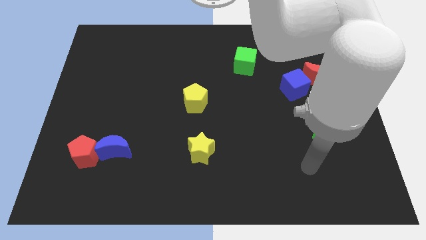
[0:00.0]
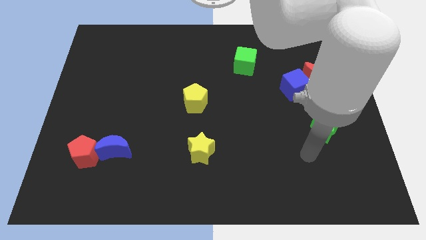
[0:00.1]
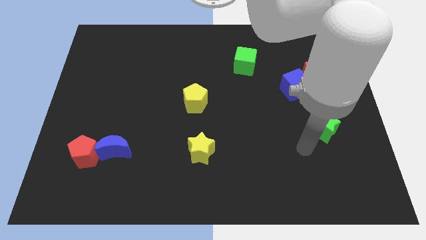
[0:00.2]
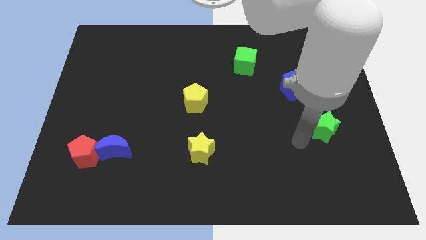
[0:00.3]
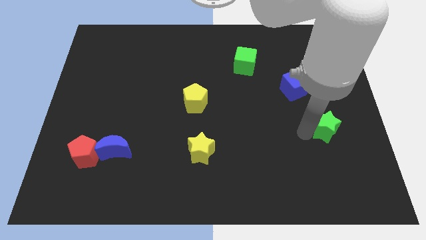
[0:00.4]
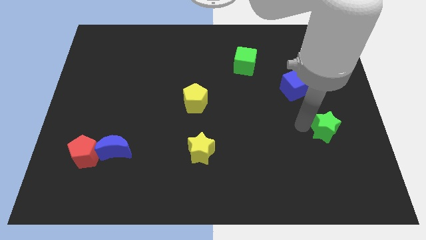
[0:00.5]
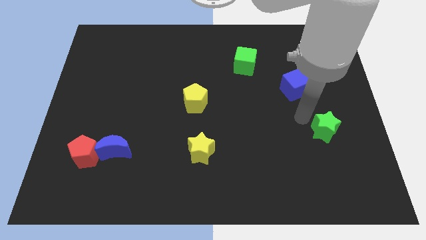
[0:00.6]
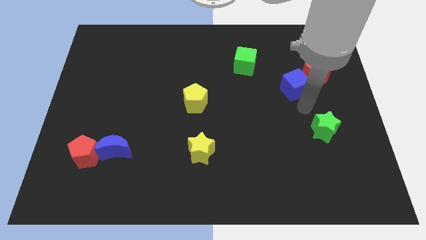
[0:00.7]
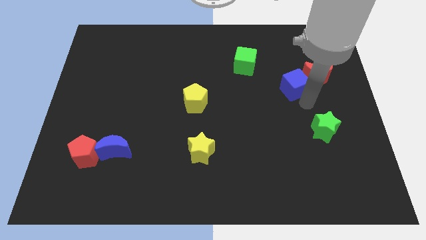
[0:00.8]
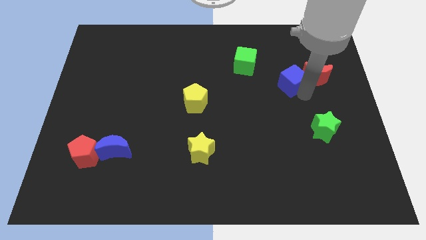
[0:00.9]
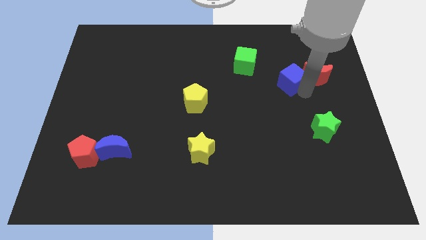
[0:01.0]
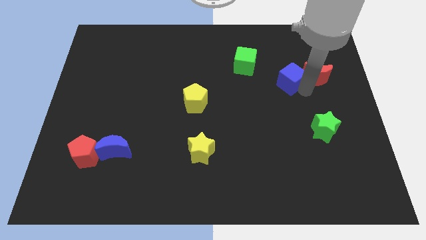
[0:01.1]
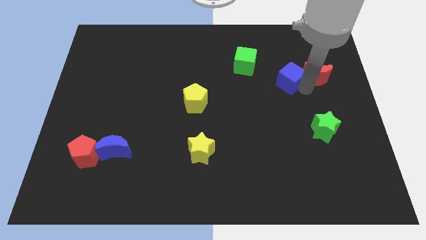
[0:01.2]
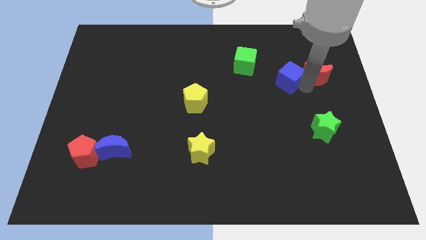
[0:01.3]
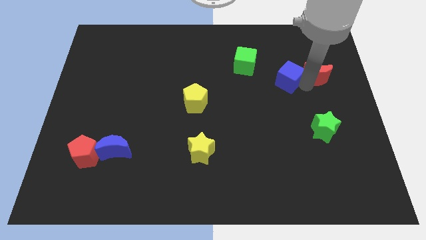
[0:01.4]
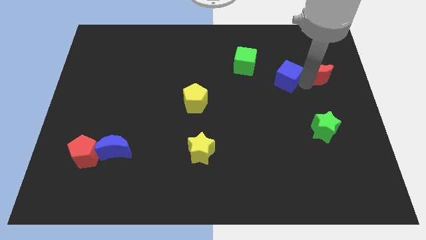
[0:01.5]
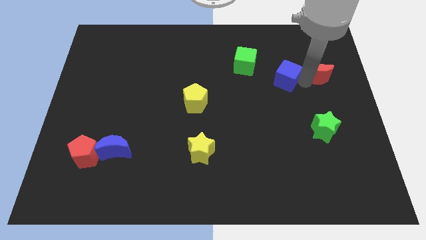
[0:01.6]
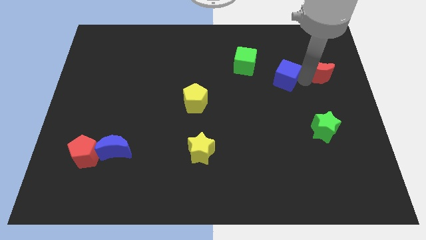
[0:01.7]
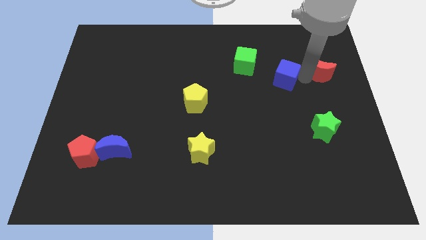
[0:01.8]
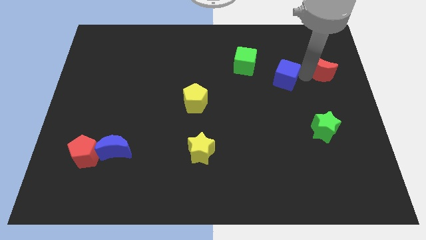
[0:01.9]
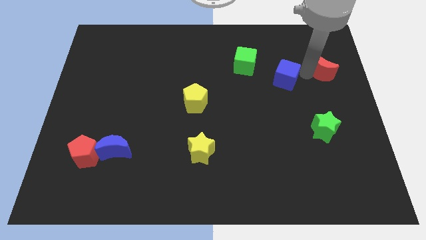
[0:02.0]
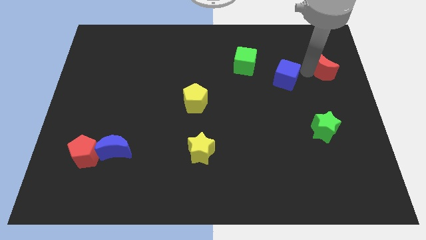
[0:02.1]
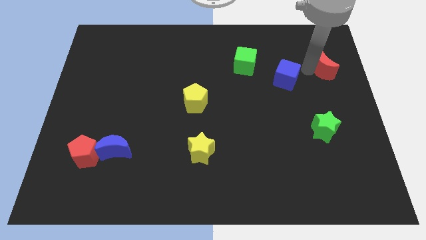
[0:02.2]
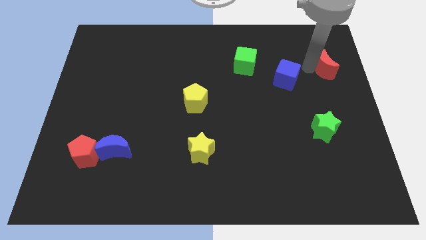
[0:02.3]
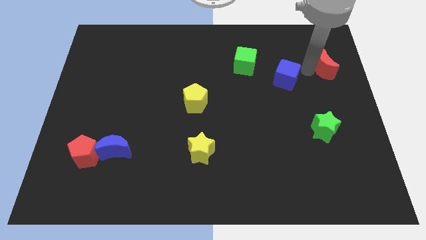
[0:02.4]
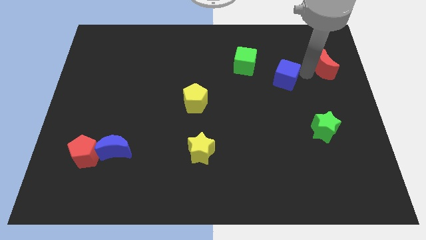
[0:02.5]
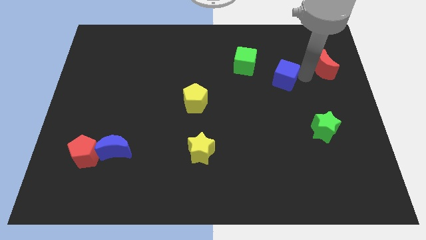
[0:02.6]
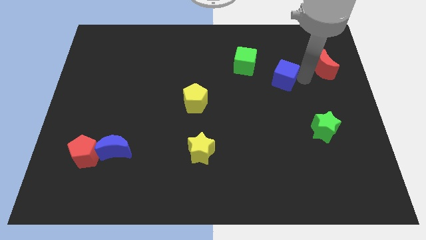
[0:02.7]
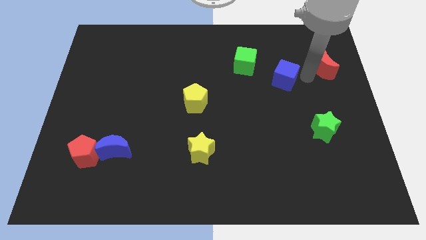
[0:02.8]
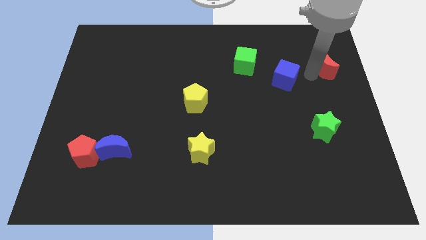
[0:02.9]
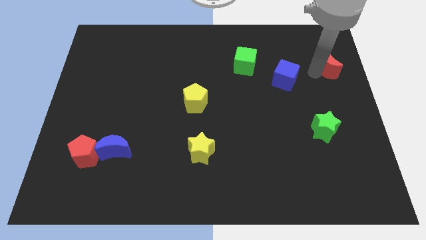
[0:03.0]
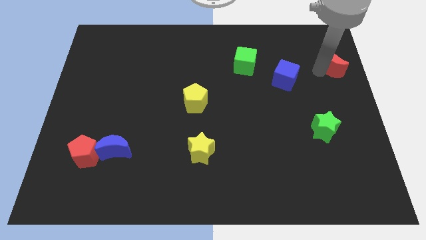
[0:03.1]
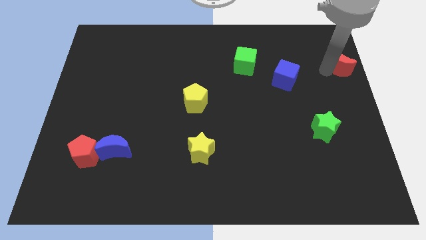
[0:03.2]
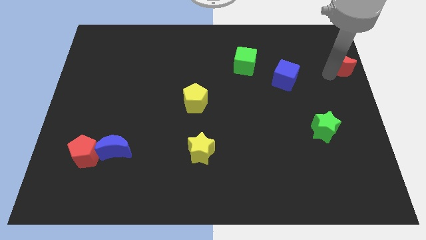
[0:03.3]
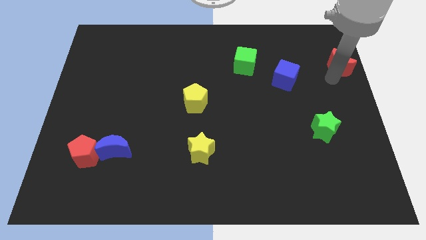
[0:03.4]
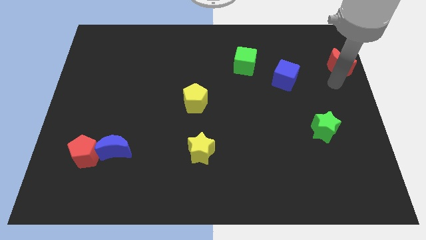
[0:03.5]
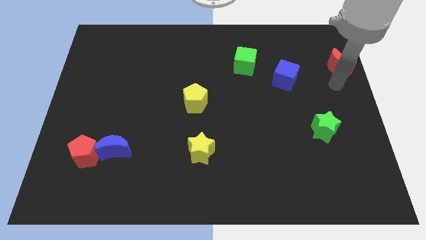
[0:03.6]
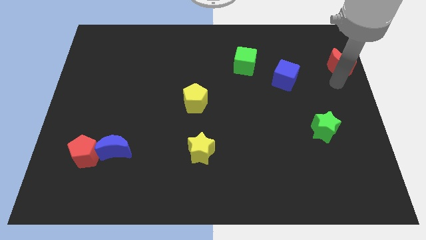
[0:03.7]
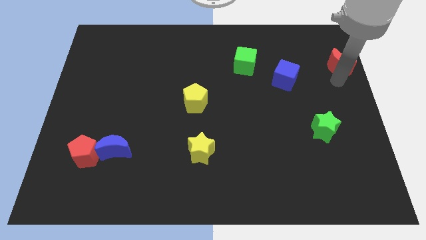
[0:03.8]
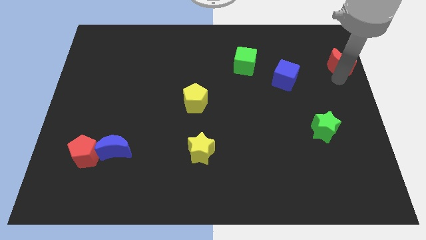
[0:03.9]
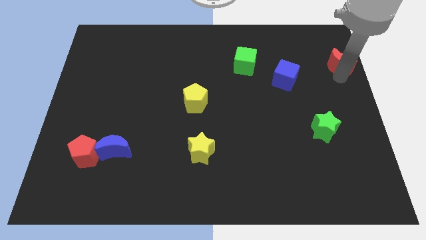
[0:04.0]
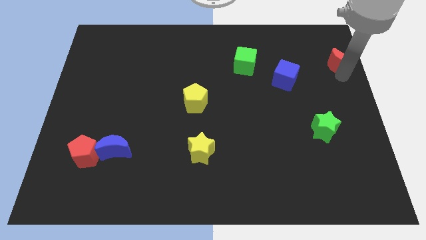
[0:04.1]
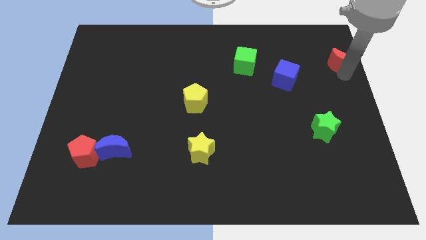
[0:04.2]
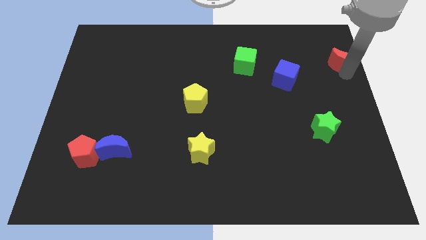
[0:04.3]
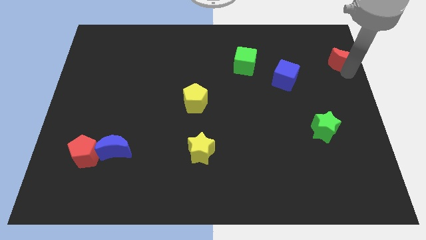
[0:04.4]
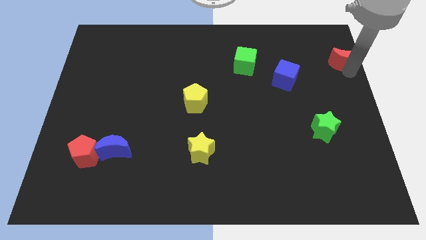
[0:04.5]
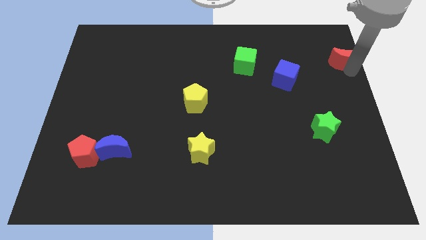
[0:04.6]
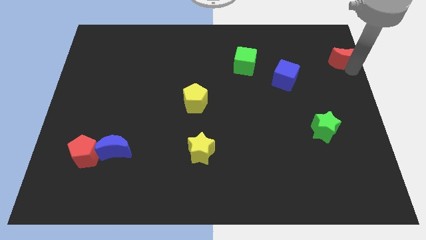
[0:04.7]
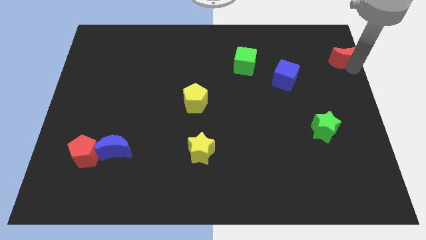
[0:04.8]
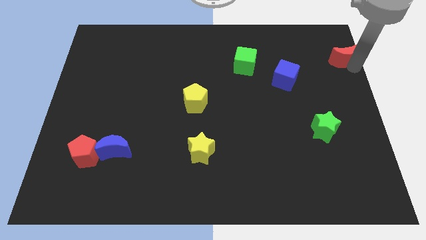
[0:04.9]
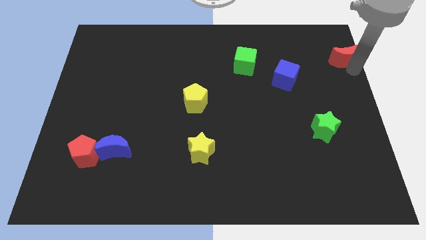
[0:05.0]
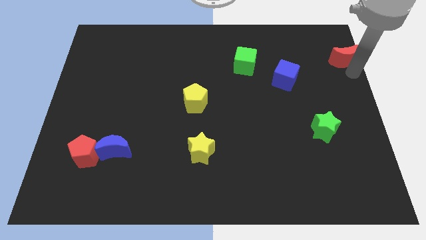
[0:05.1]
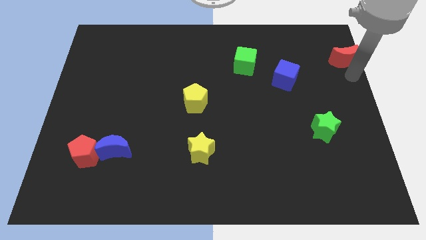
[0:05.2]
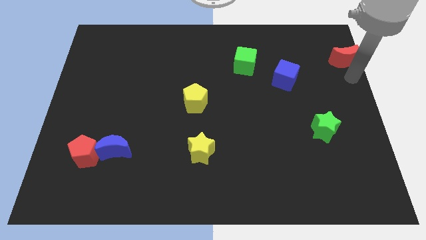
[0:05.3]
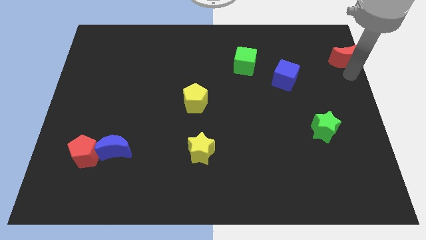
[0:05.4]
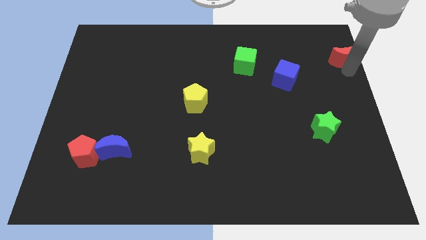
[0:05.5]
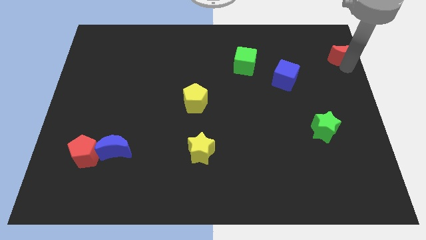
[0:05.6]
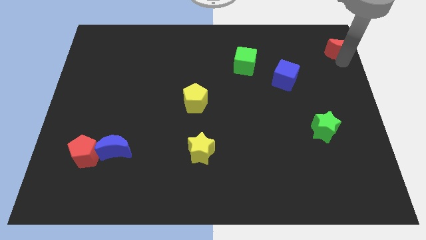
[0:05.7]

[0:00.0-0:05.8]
put the red moon to the top right

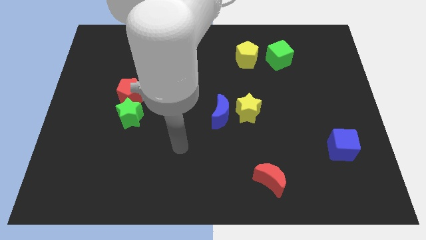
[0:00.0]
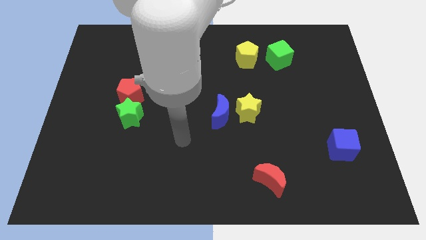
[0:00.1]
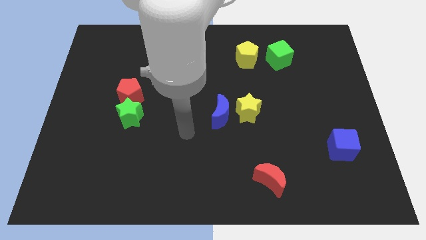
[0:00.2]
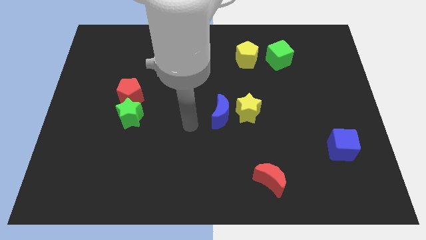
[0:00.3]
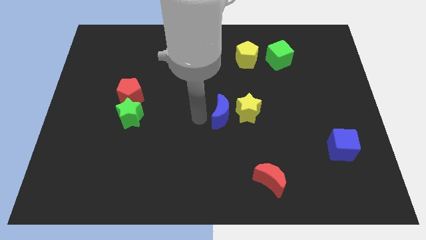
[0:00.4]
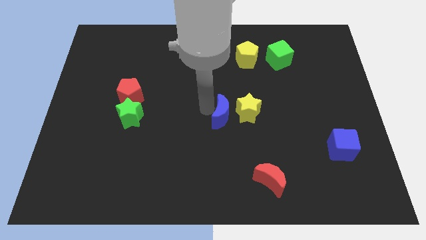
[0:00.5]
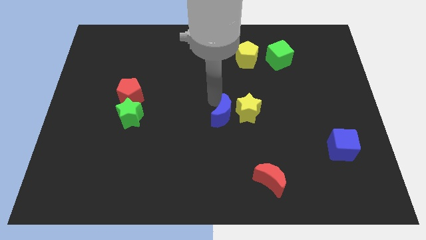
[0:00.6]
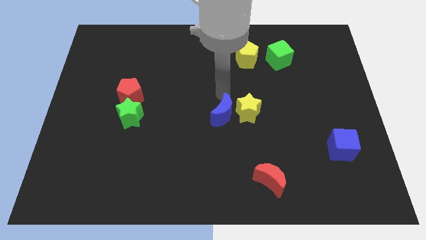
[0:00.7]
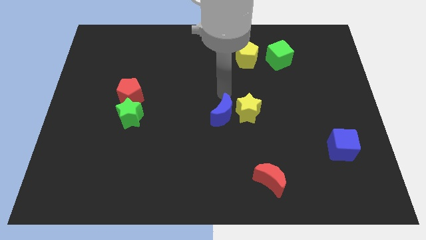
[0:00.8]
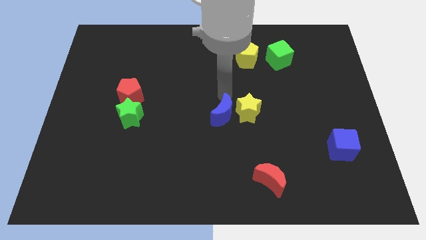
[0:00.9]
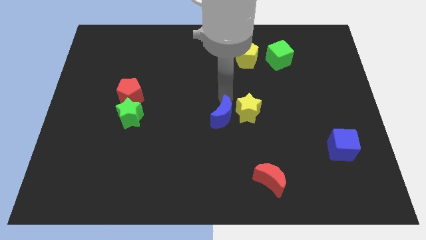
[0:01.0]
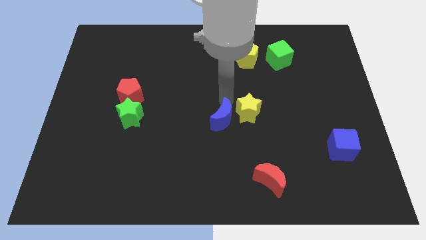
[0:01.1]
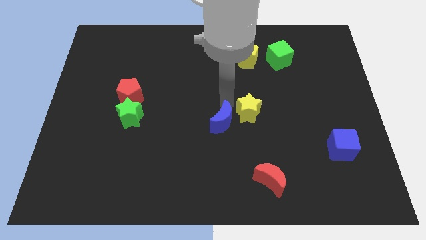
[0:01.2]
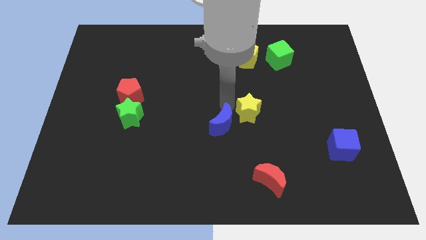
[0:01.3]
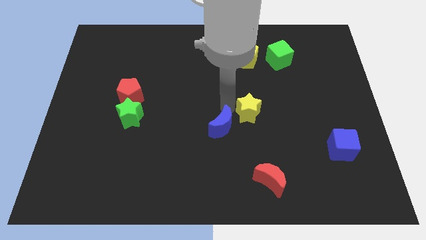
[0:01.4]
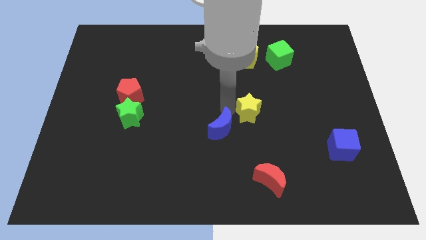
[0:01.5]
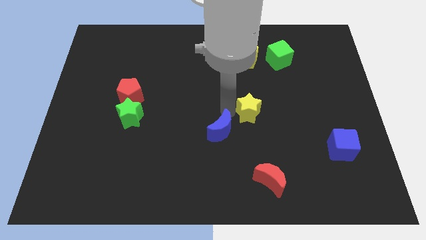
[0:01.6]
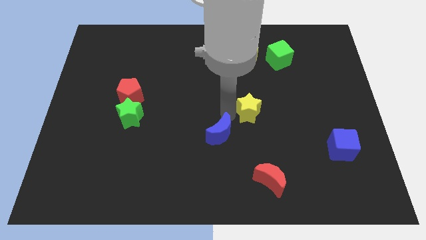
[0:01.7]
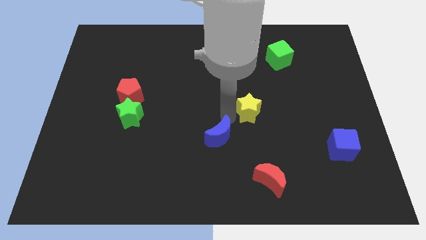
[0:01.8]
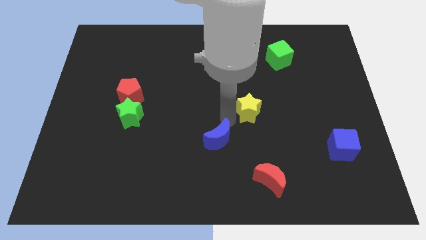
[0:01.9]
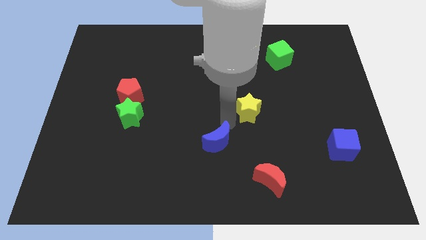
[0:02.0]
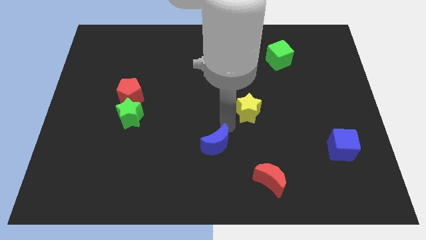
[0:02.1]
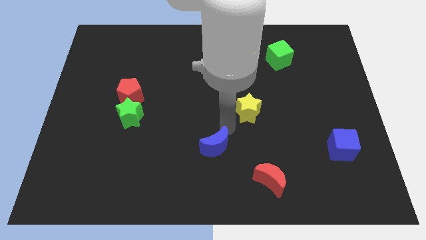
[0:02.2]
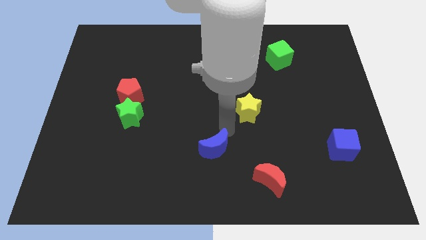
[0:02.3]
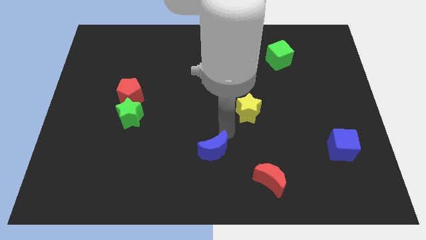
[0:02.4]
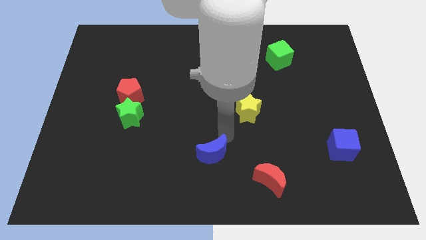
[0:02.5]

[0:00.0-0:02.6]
push the blue moon to the bottom side
